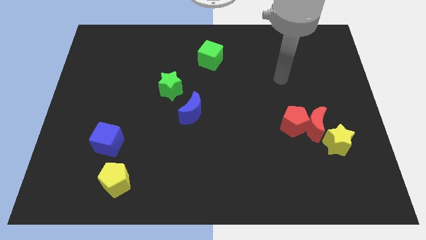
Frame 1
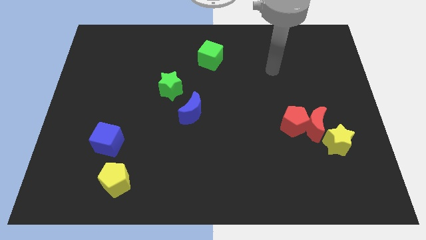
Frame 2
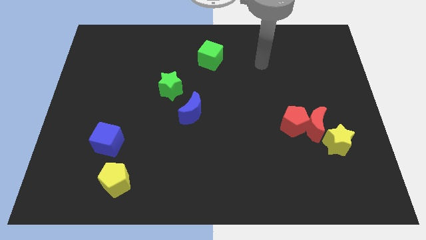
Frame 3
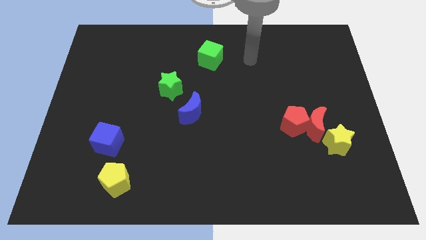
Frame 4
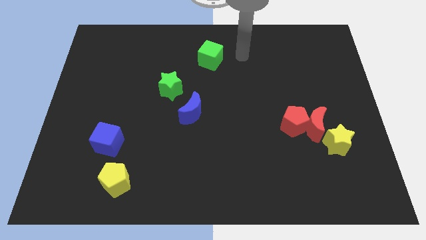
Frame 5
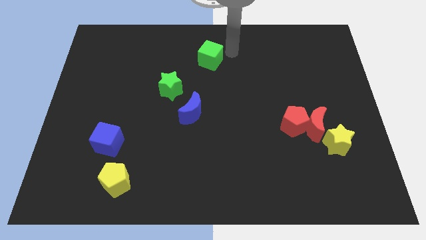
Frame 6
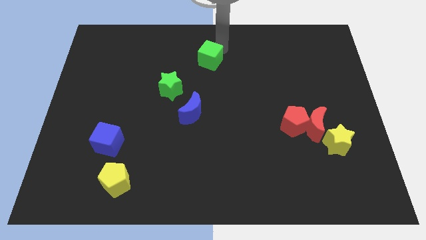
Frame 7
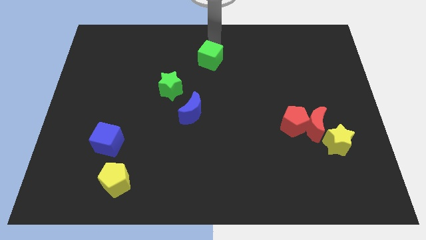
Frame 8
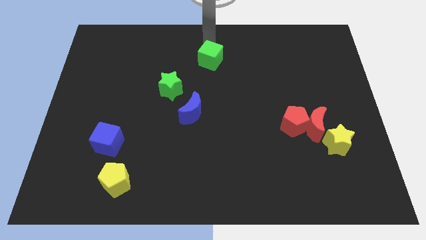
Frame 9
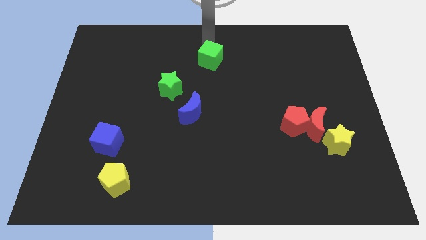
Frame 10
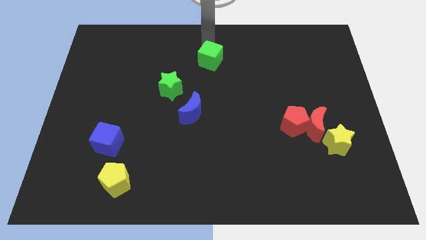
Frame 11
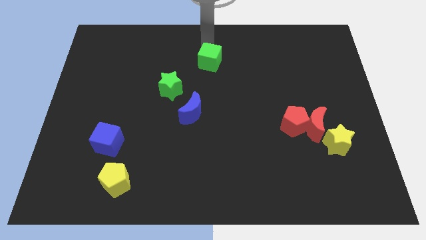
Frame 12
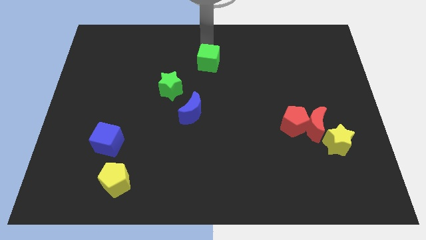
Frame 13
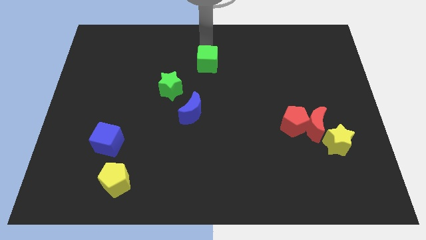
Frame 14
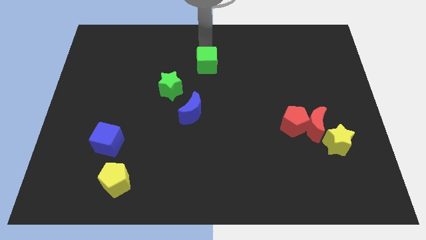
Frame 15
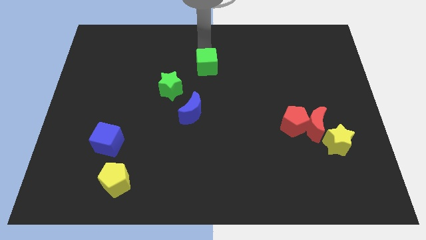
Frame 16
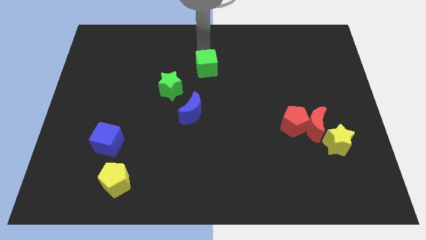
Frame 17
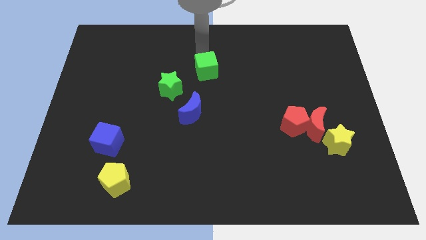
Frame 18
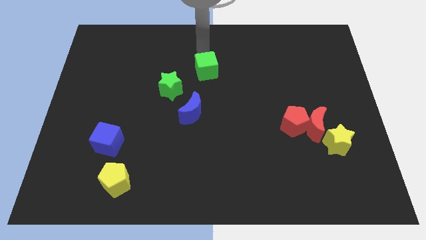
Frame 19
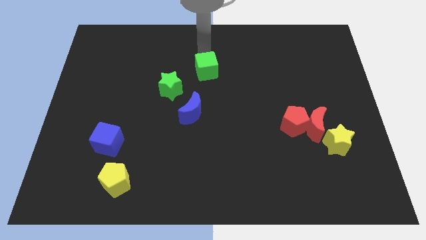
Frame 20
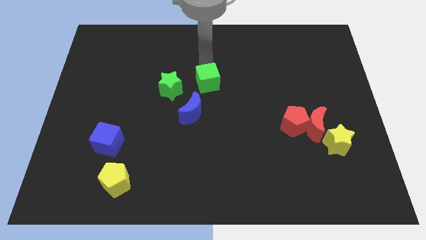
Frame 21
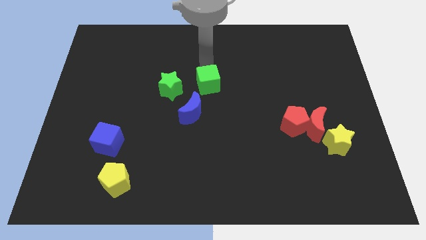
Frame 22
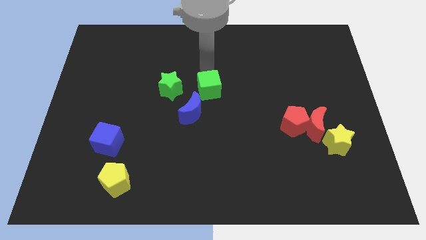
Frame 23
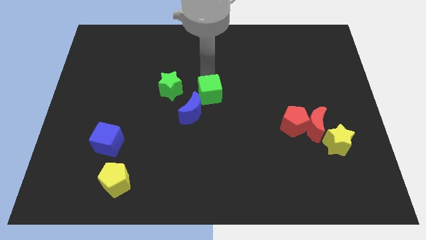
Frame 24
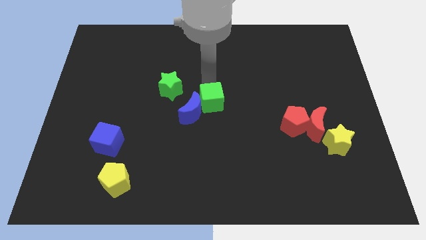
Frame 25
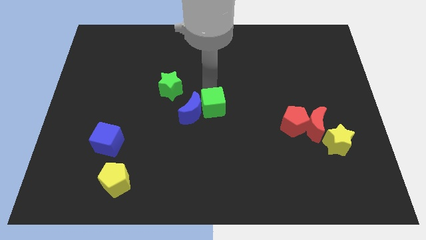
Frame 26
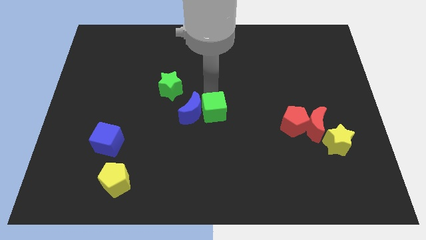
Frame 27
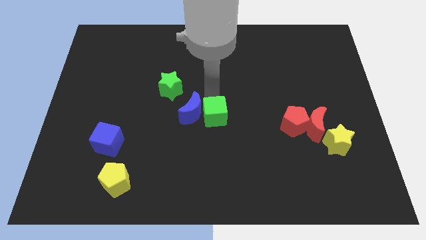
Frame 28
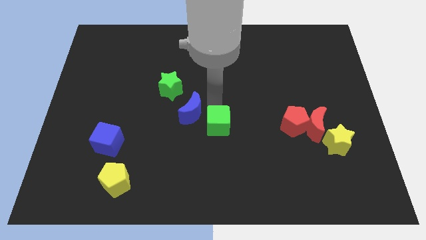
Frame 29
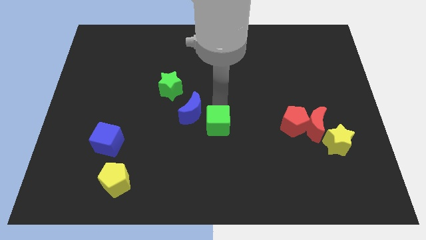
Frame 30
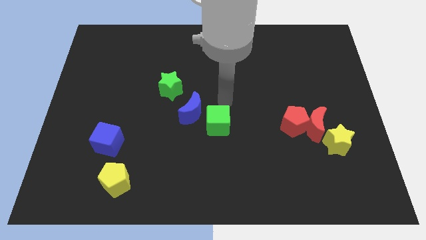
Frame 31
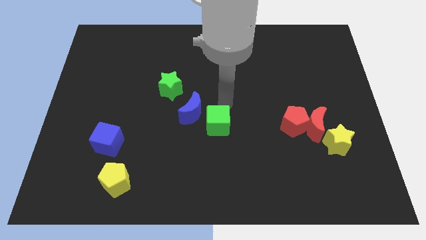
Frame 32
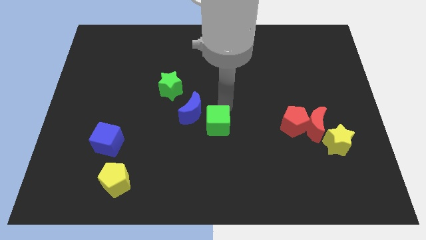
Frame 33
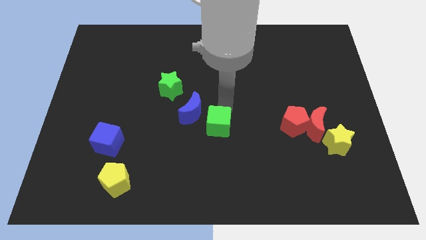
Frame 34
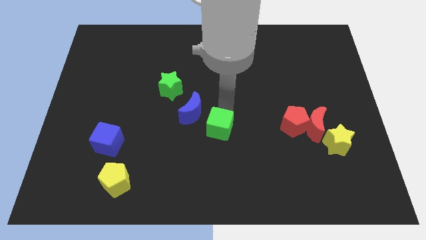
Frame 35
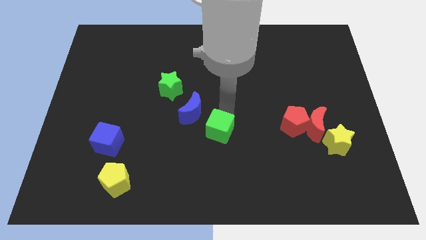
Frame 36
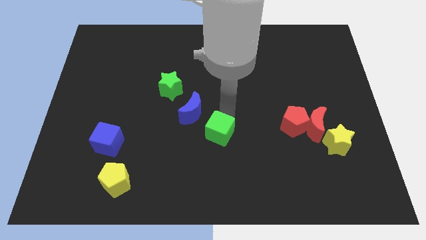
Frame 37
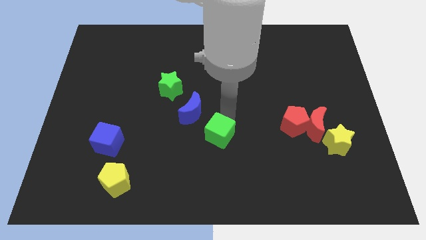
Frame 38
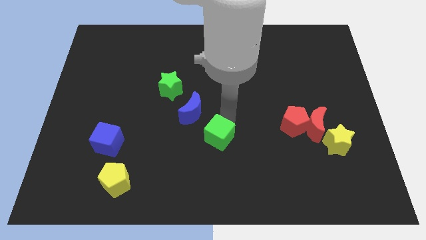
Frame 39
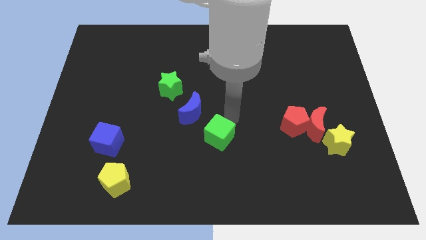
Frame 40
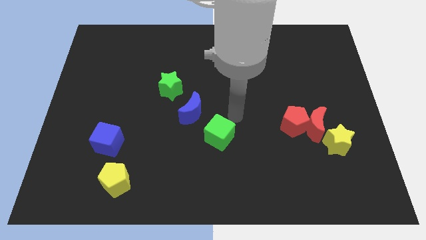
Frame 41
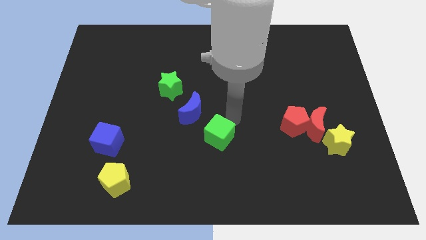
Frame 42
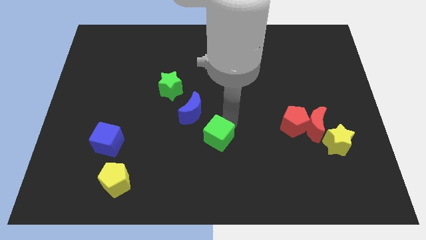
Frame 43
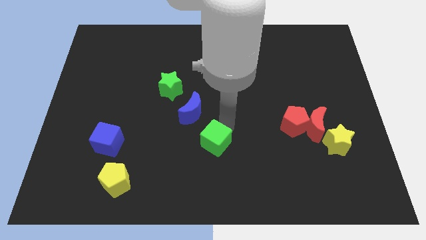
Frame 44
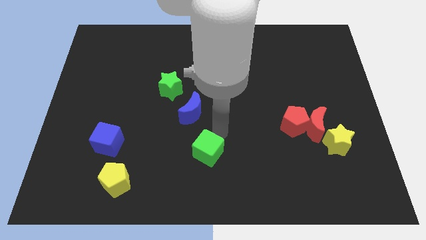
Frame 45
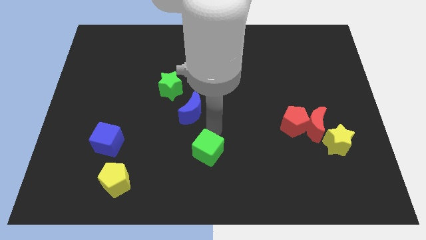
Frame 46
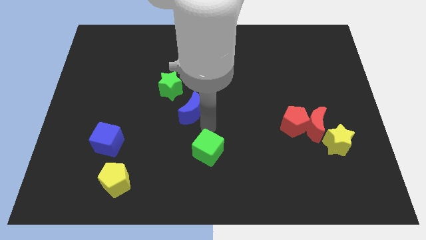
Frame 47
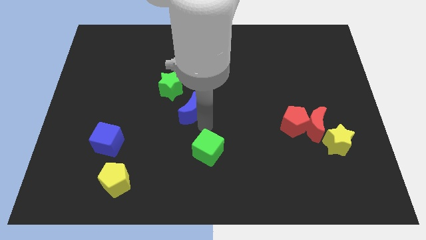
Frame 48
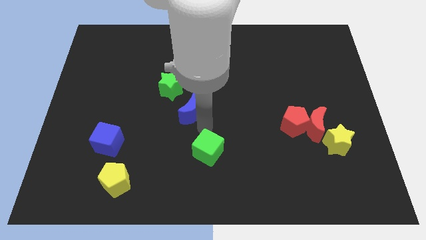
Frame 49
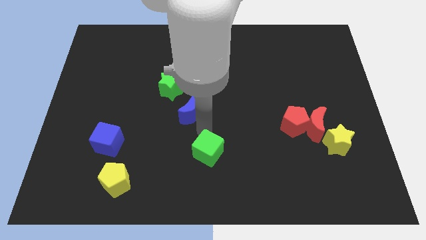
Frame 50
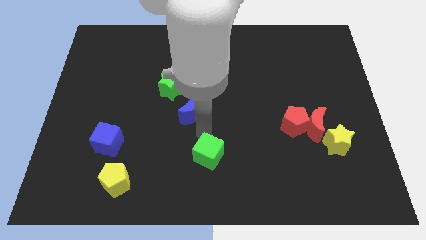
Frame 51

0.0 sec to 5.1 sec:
move the green cube to the bottom side

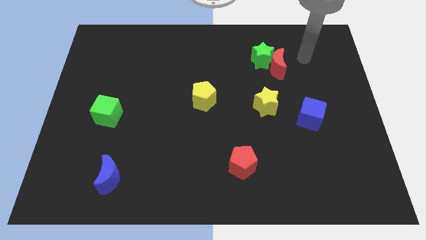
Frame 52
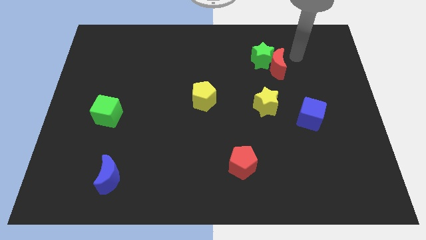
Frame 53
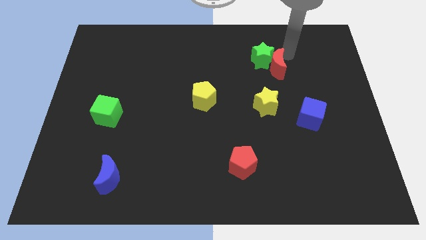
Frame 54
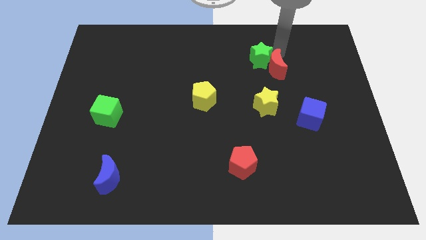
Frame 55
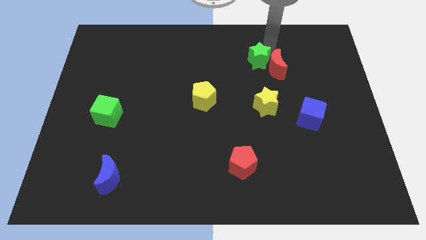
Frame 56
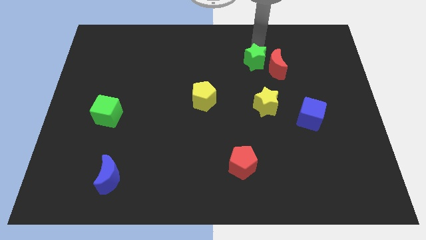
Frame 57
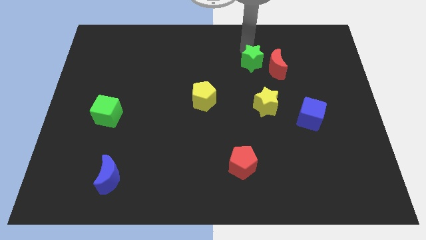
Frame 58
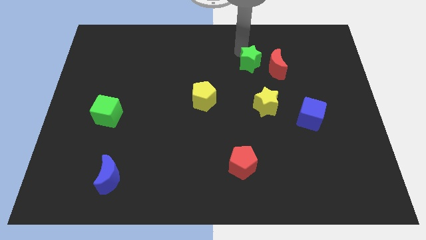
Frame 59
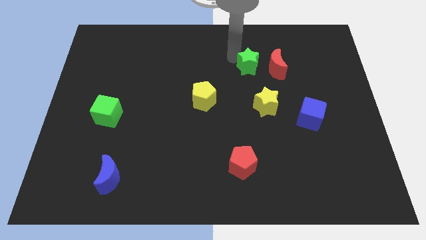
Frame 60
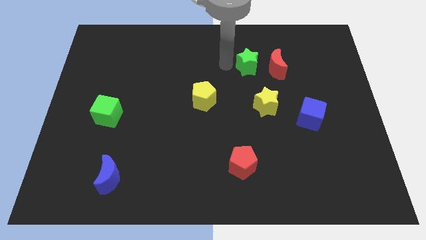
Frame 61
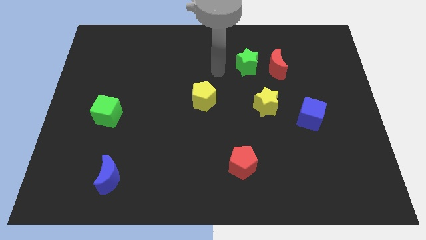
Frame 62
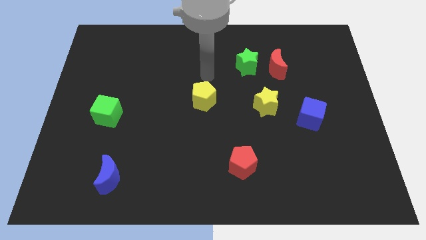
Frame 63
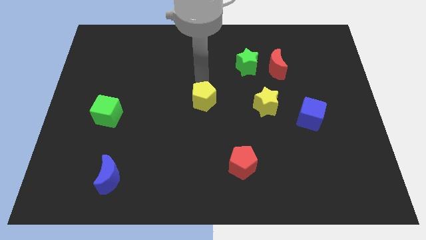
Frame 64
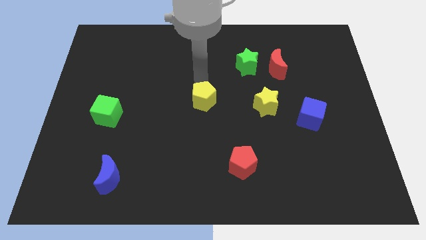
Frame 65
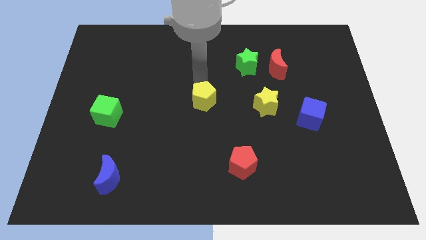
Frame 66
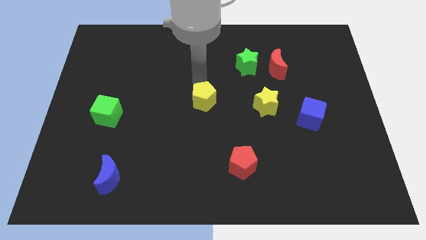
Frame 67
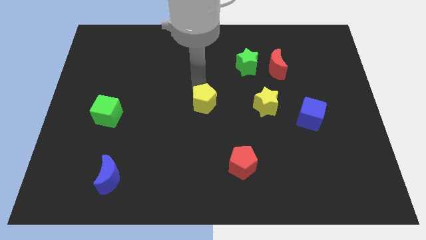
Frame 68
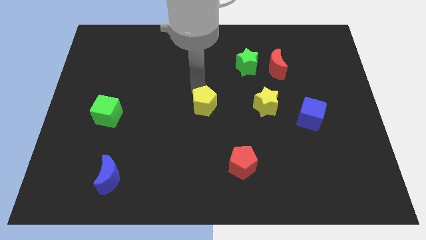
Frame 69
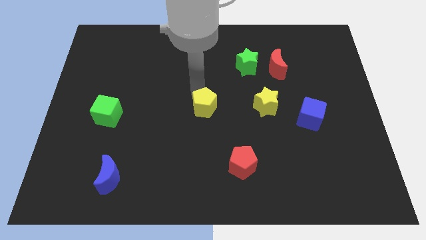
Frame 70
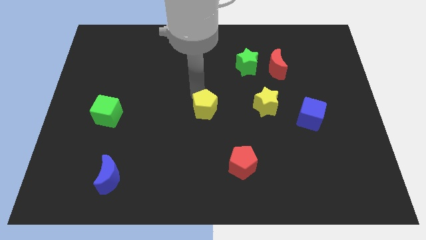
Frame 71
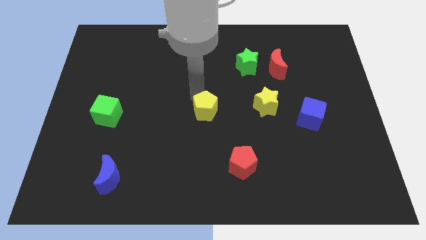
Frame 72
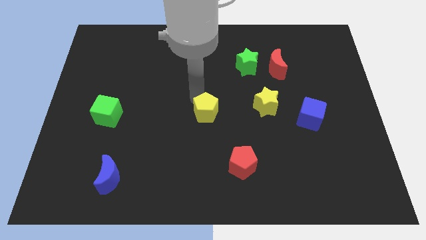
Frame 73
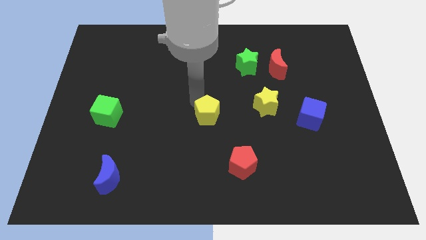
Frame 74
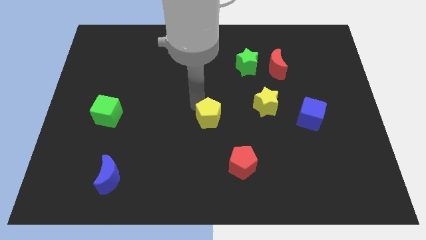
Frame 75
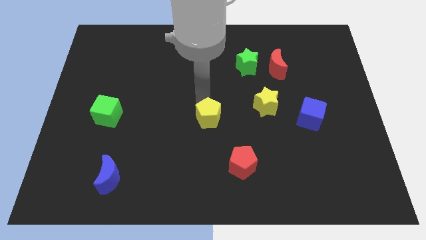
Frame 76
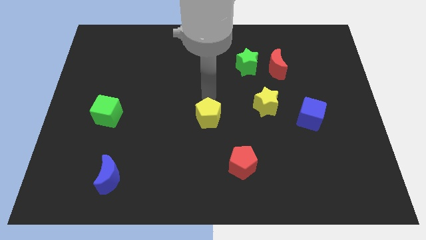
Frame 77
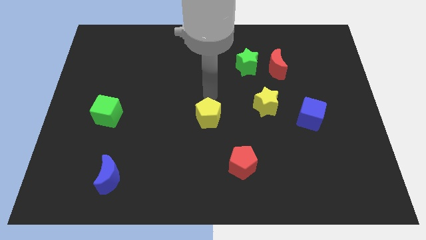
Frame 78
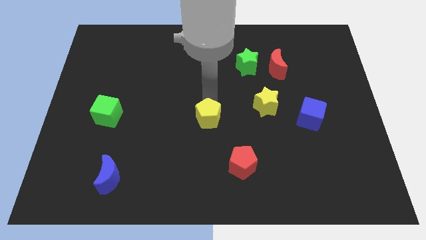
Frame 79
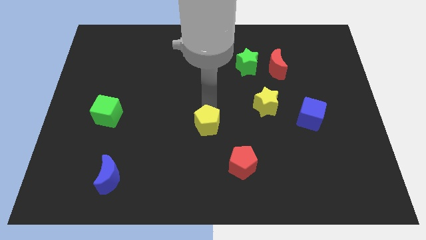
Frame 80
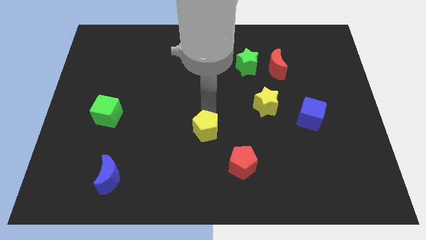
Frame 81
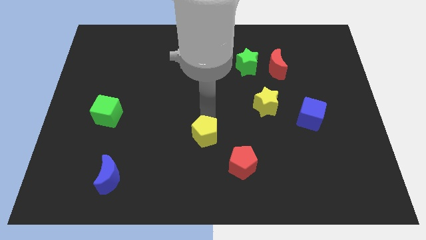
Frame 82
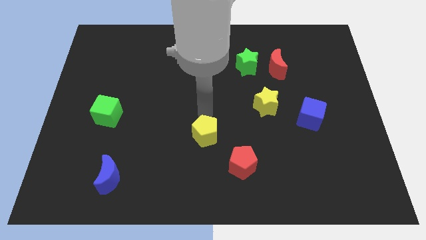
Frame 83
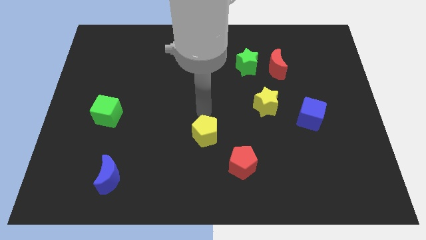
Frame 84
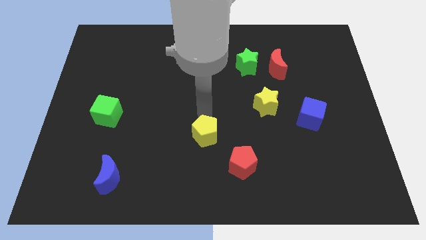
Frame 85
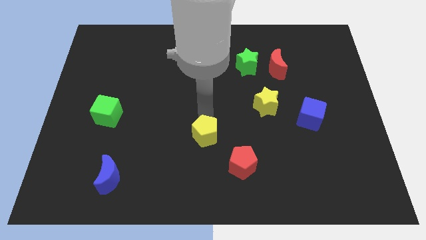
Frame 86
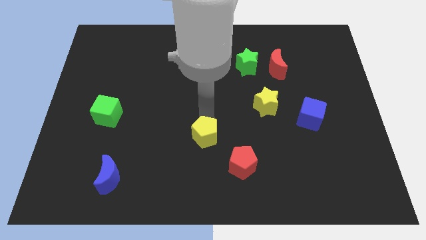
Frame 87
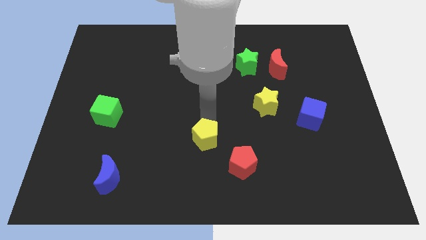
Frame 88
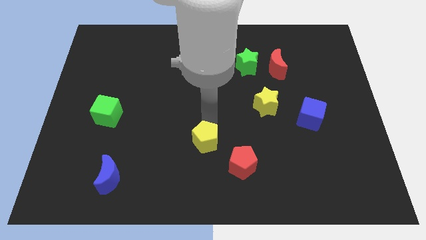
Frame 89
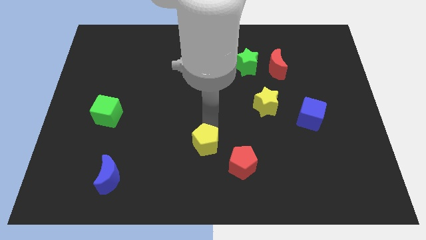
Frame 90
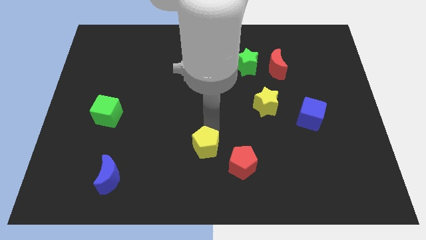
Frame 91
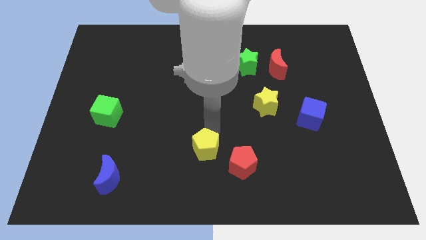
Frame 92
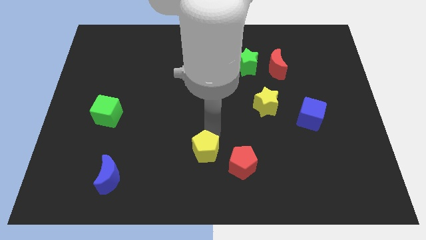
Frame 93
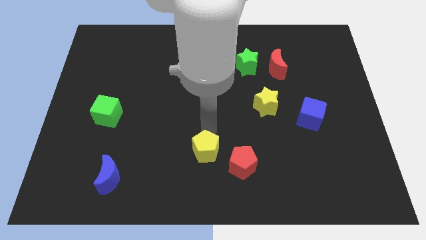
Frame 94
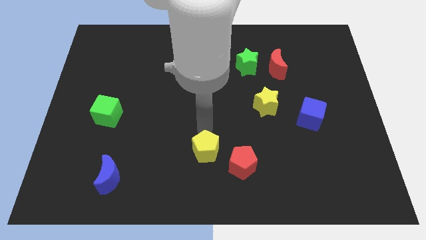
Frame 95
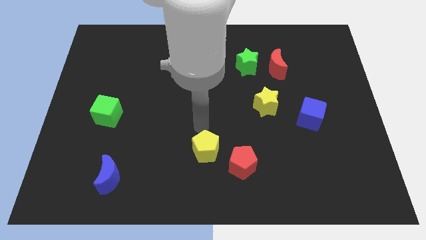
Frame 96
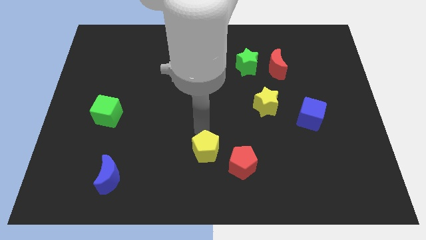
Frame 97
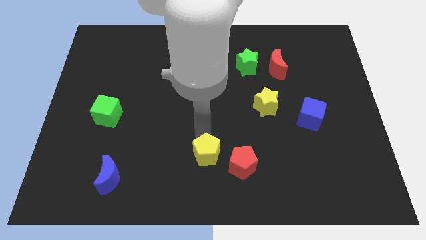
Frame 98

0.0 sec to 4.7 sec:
push the yellow pentagon to the bottom
